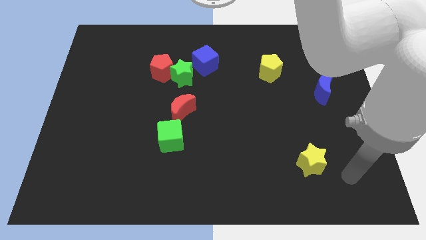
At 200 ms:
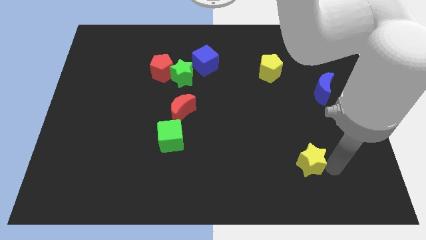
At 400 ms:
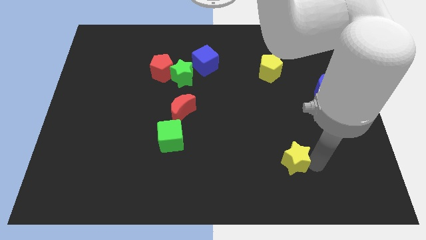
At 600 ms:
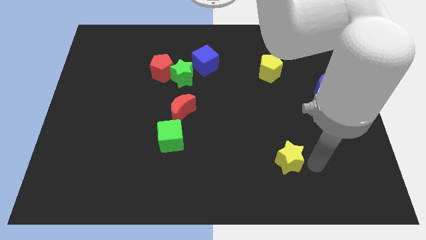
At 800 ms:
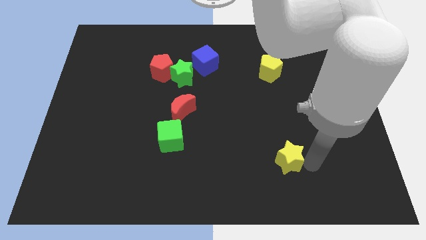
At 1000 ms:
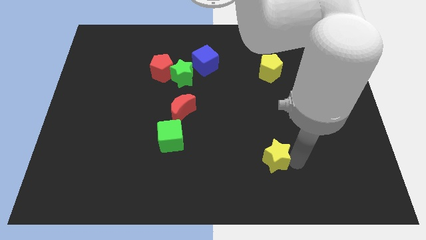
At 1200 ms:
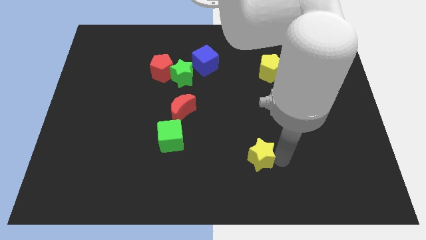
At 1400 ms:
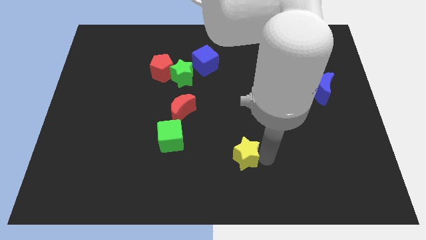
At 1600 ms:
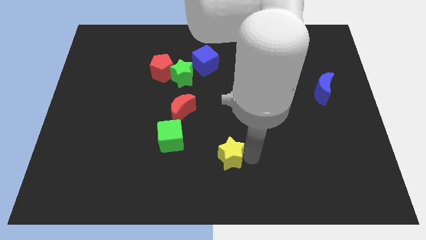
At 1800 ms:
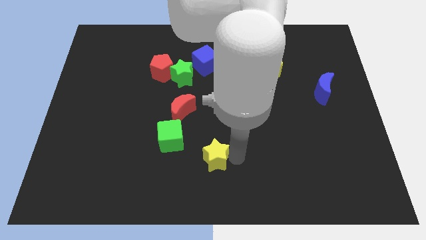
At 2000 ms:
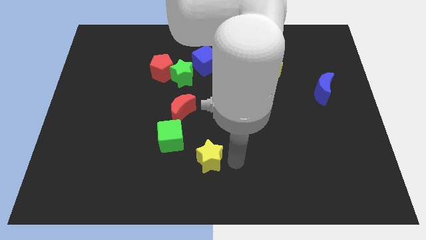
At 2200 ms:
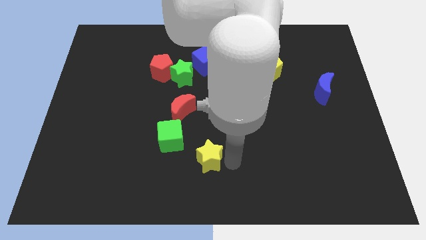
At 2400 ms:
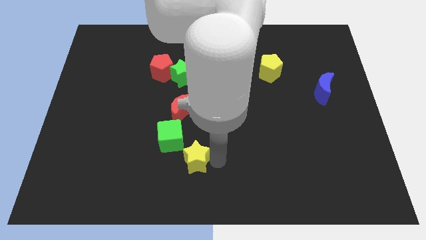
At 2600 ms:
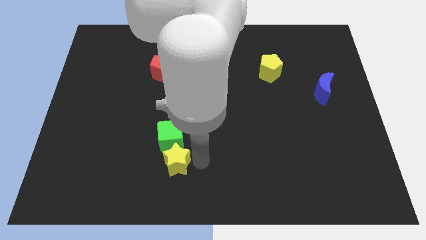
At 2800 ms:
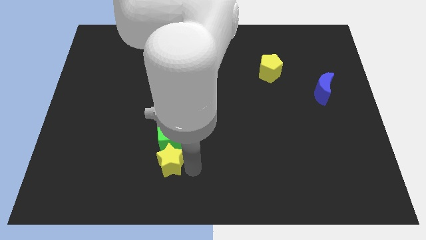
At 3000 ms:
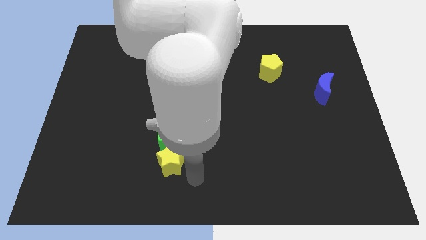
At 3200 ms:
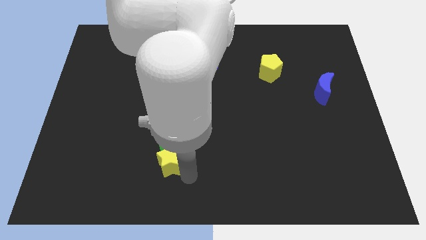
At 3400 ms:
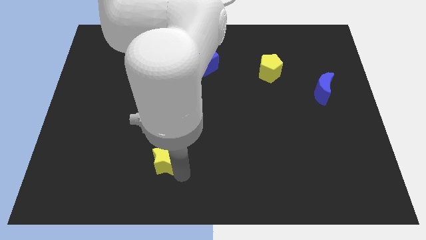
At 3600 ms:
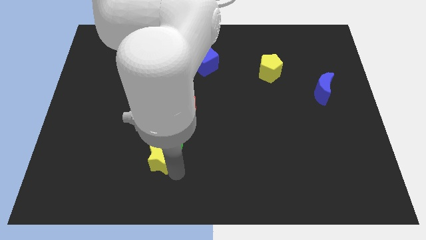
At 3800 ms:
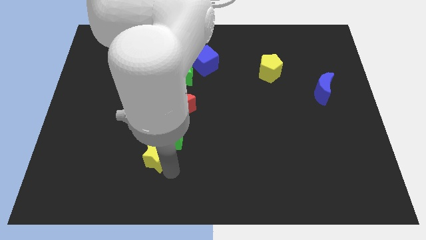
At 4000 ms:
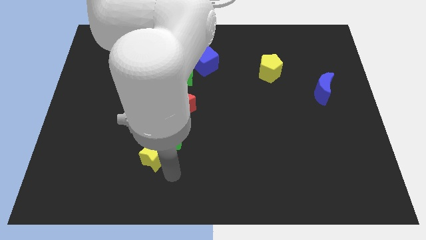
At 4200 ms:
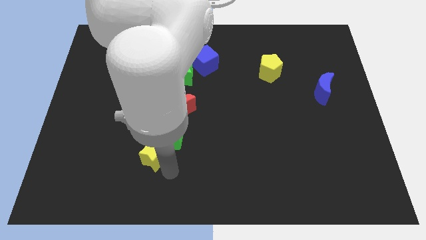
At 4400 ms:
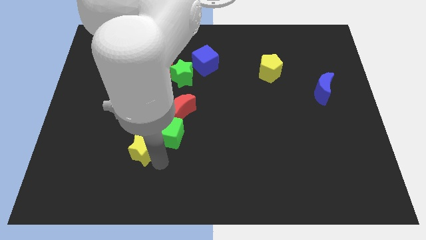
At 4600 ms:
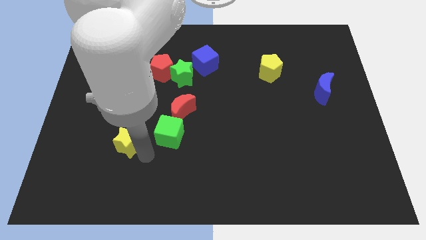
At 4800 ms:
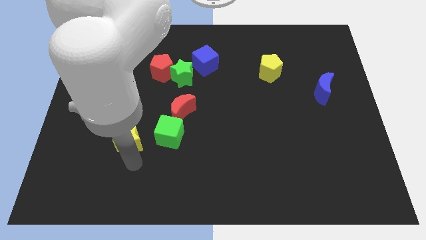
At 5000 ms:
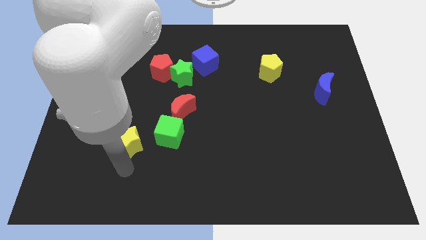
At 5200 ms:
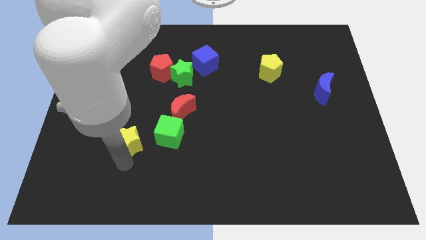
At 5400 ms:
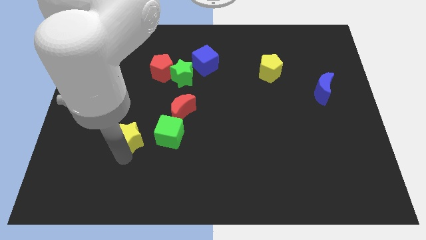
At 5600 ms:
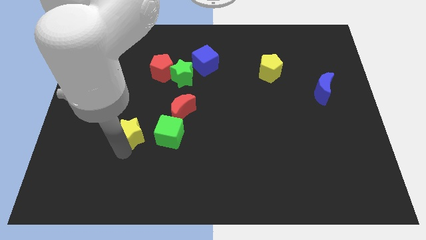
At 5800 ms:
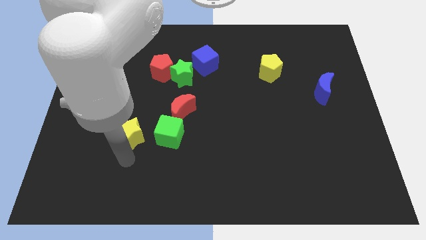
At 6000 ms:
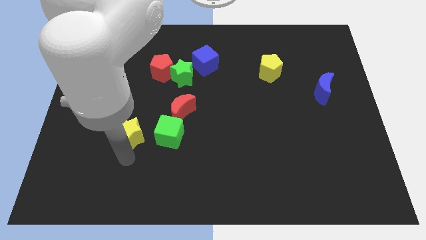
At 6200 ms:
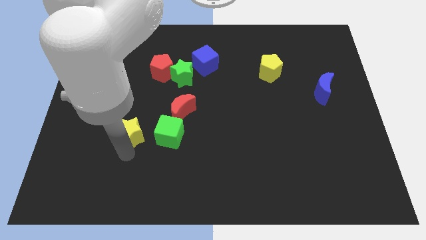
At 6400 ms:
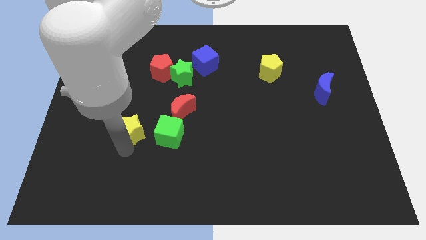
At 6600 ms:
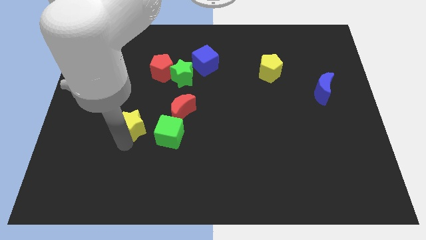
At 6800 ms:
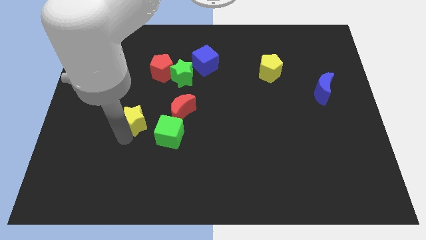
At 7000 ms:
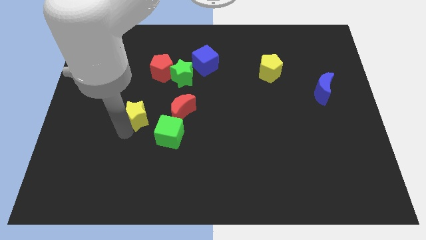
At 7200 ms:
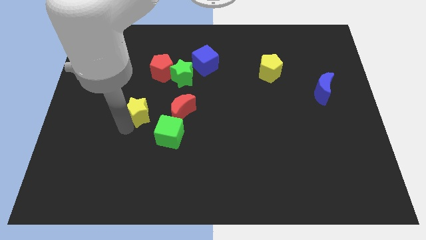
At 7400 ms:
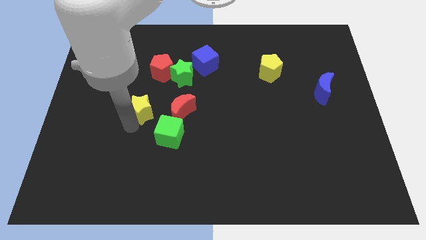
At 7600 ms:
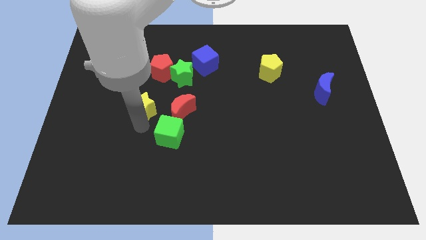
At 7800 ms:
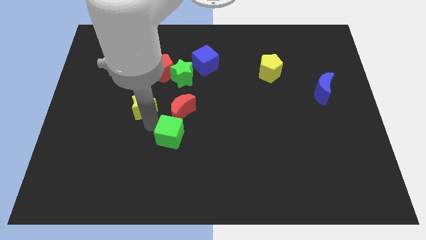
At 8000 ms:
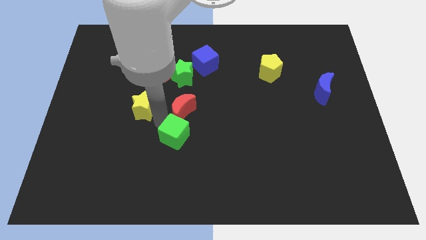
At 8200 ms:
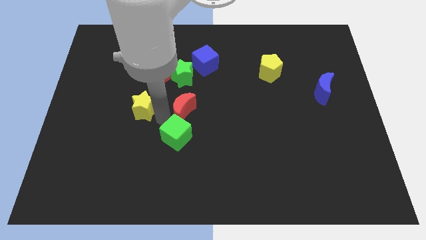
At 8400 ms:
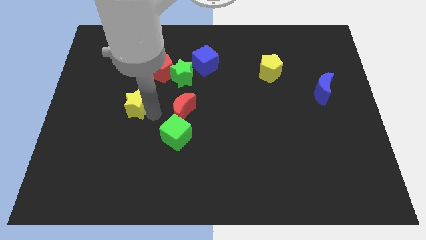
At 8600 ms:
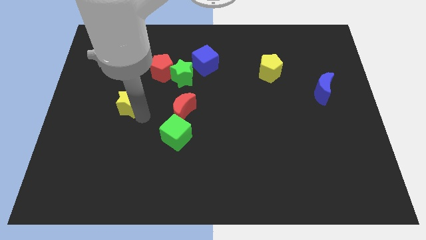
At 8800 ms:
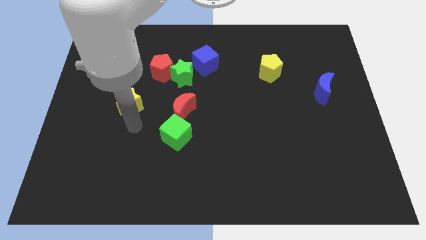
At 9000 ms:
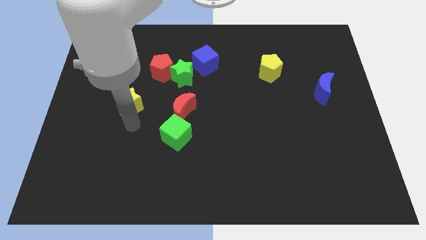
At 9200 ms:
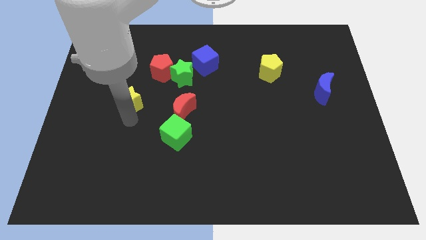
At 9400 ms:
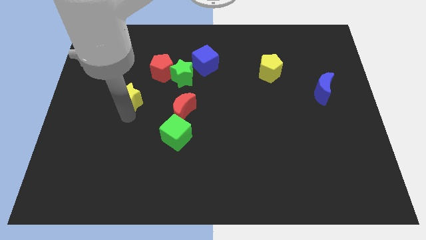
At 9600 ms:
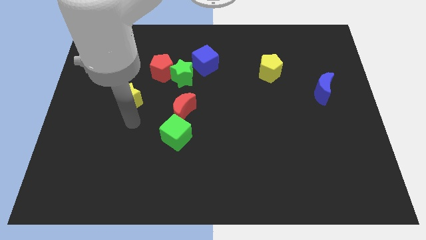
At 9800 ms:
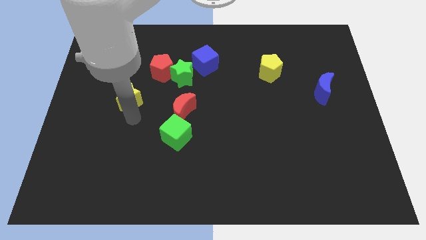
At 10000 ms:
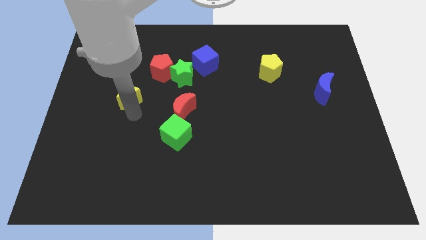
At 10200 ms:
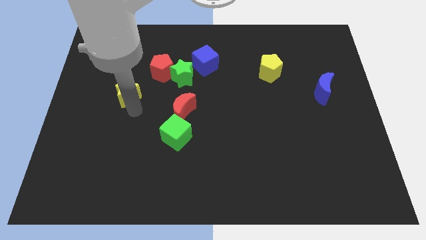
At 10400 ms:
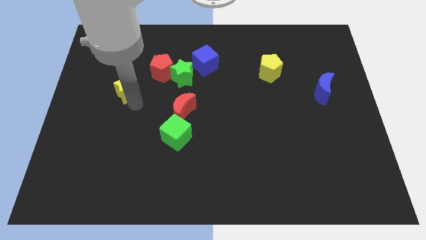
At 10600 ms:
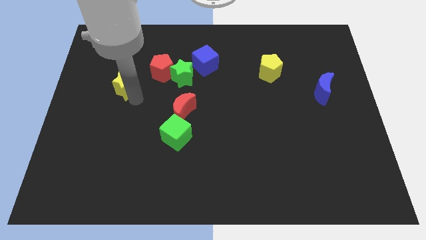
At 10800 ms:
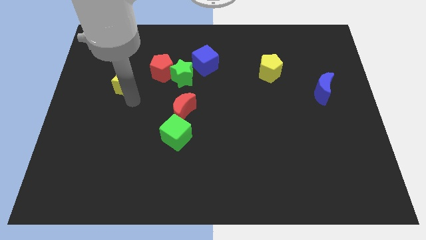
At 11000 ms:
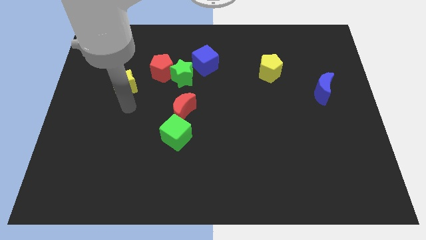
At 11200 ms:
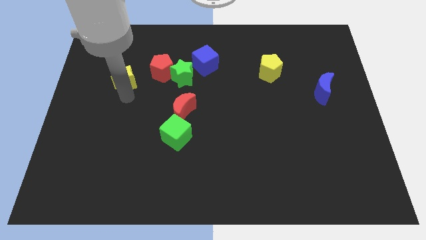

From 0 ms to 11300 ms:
move the yellow star just left of the red pentagon
